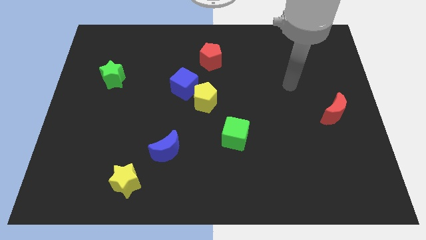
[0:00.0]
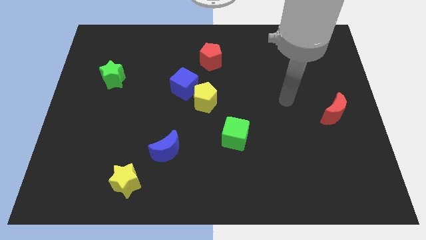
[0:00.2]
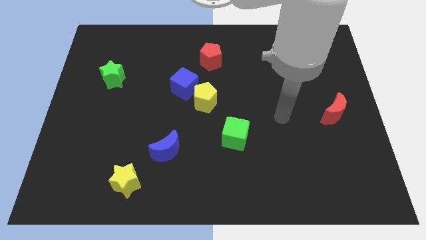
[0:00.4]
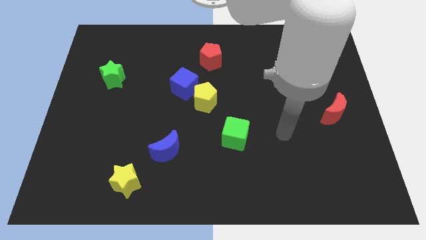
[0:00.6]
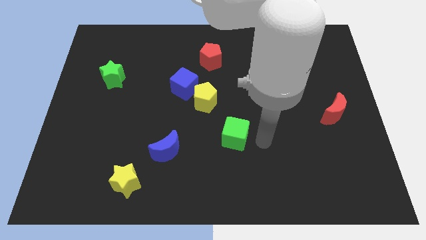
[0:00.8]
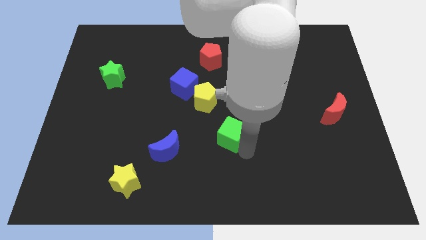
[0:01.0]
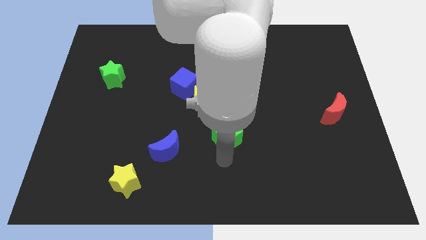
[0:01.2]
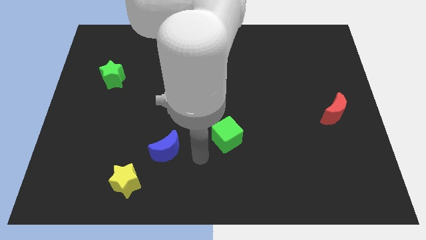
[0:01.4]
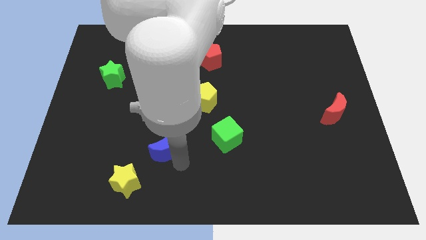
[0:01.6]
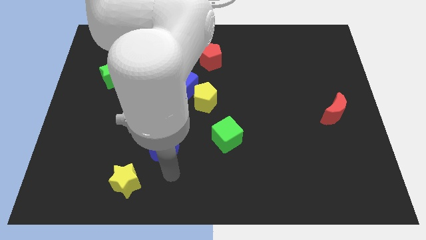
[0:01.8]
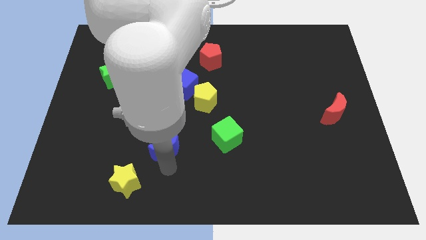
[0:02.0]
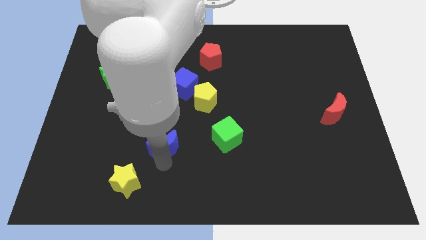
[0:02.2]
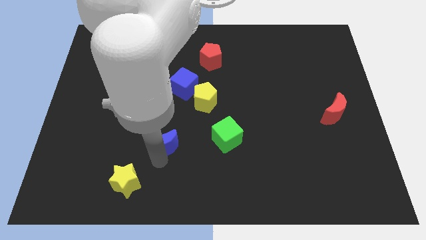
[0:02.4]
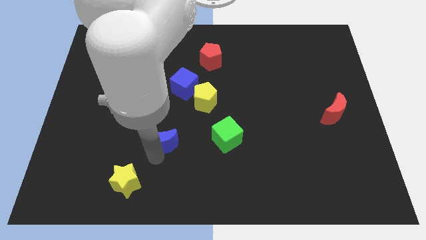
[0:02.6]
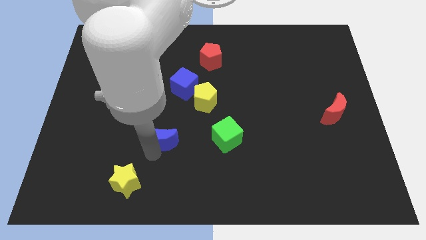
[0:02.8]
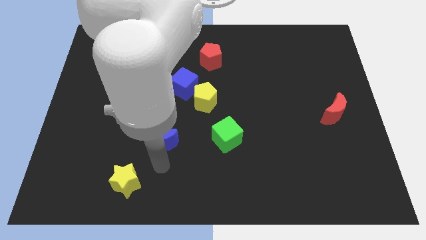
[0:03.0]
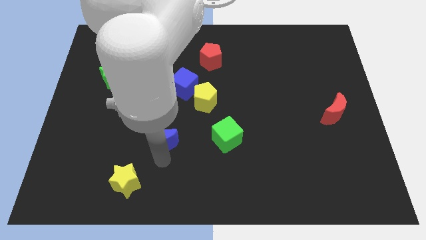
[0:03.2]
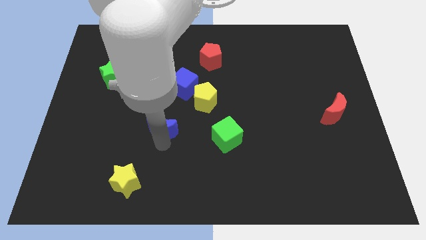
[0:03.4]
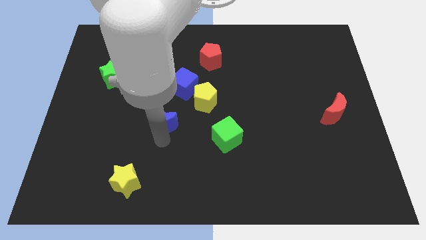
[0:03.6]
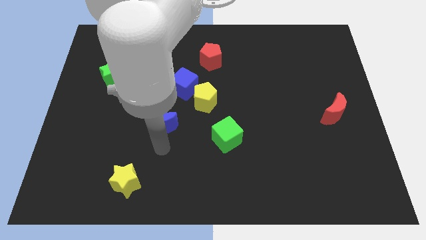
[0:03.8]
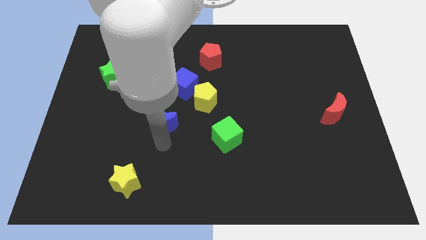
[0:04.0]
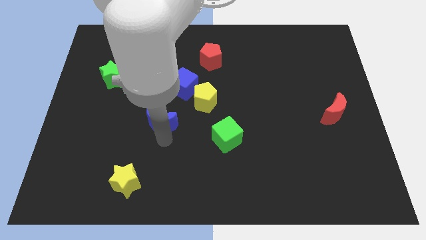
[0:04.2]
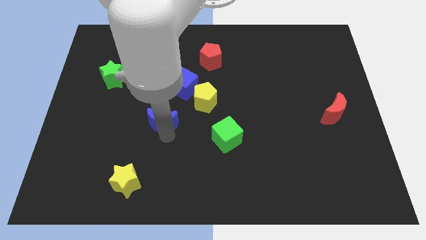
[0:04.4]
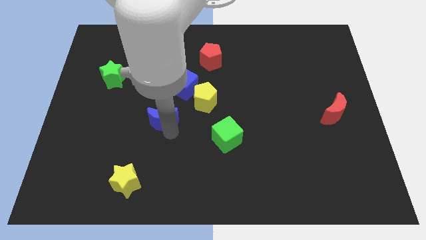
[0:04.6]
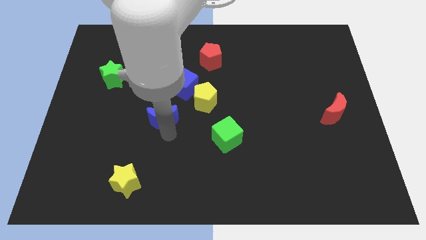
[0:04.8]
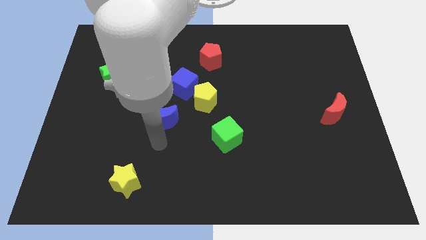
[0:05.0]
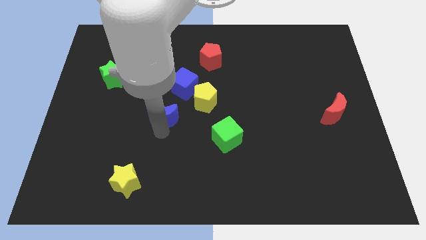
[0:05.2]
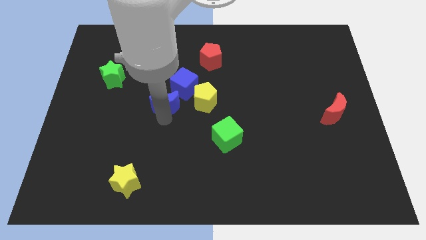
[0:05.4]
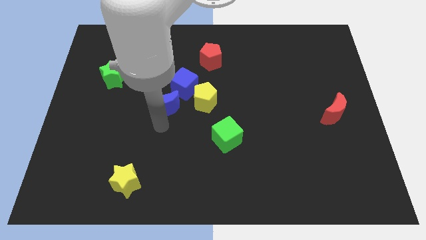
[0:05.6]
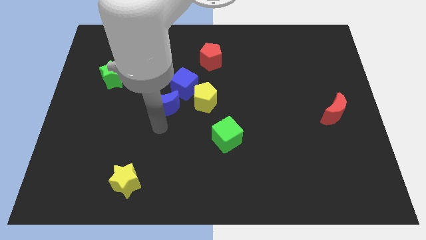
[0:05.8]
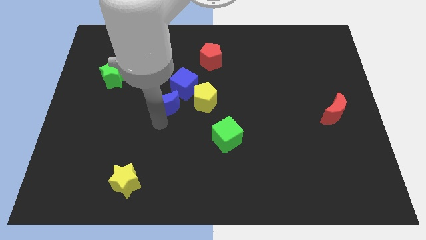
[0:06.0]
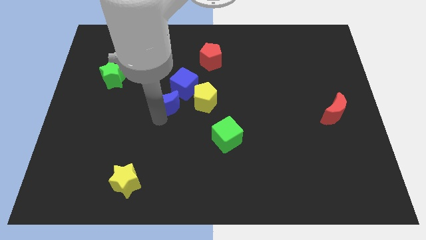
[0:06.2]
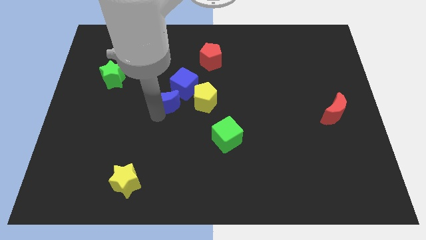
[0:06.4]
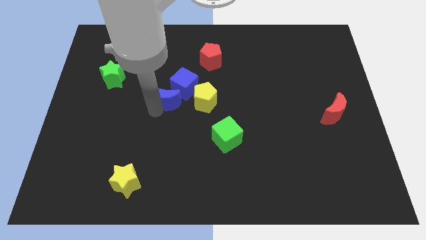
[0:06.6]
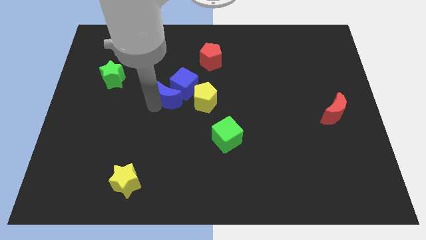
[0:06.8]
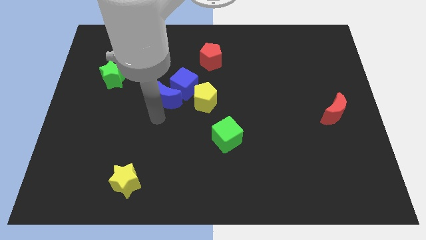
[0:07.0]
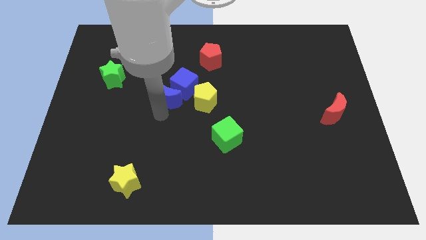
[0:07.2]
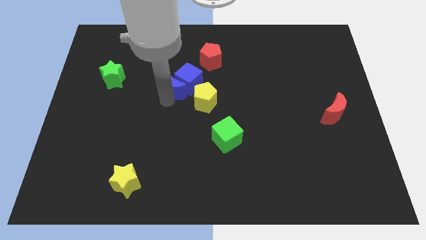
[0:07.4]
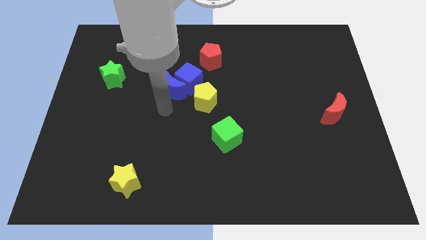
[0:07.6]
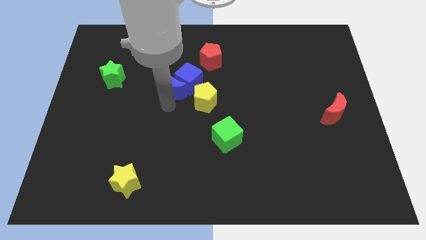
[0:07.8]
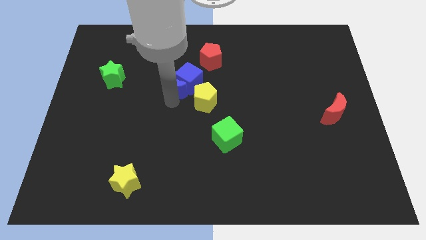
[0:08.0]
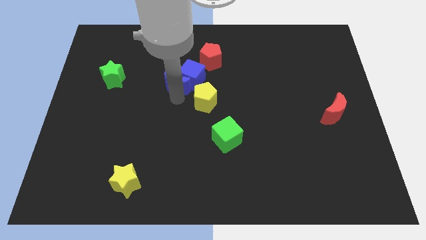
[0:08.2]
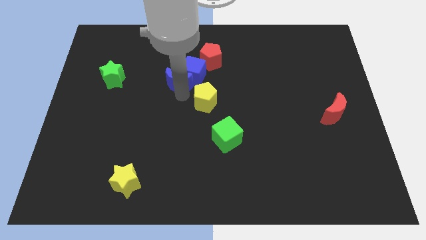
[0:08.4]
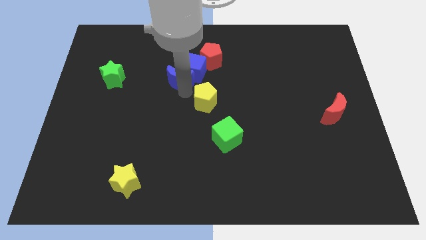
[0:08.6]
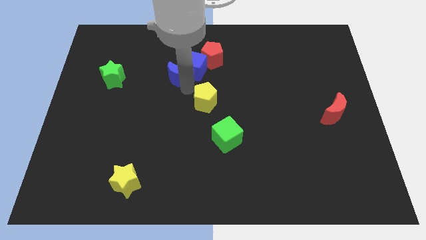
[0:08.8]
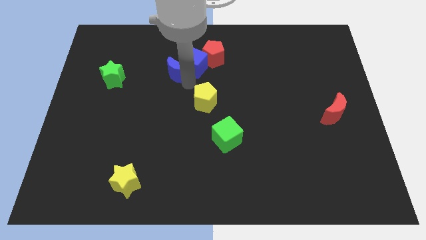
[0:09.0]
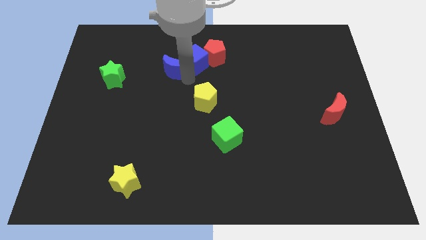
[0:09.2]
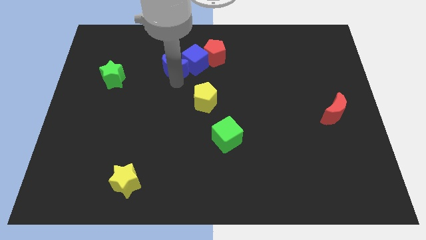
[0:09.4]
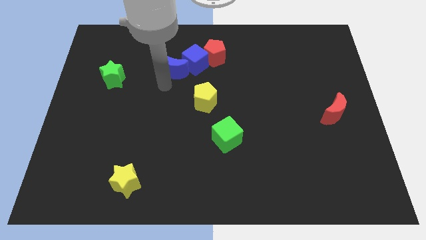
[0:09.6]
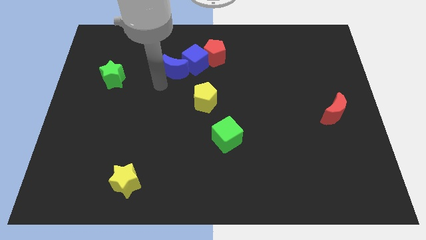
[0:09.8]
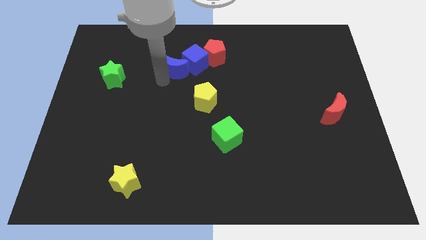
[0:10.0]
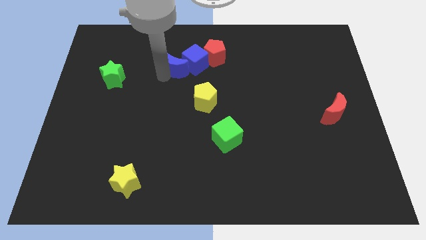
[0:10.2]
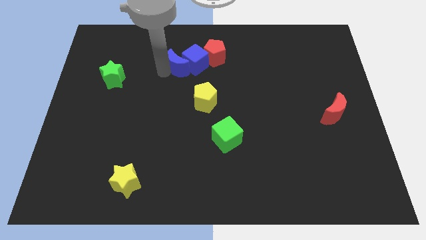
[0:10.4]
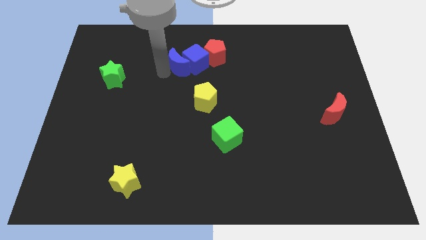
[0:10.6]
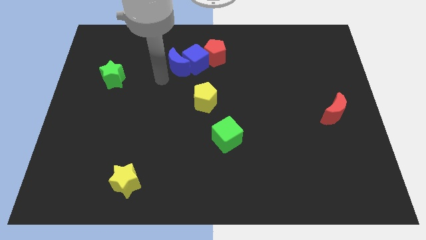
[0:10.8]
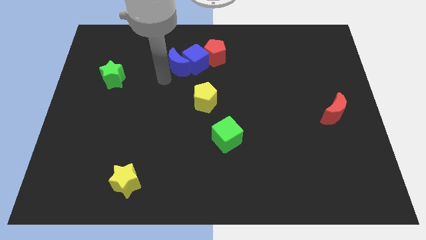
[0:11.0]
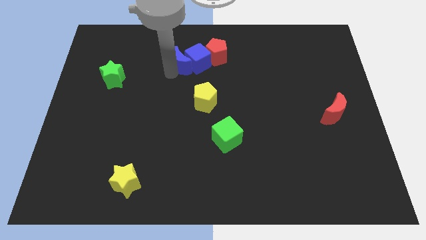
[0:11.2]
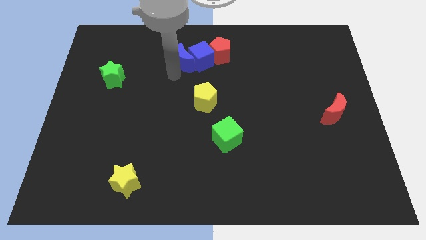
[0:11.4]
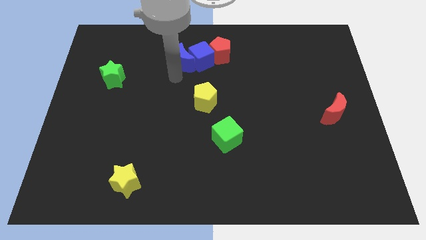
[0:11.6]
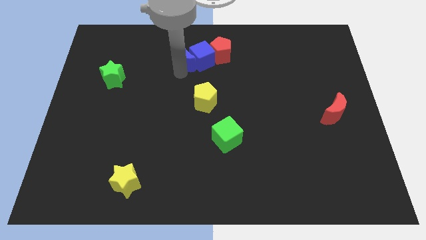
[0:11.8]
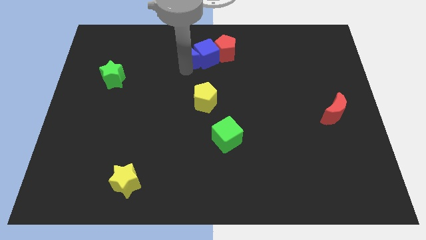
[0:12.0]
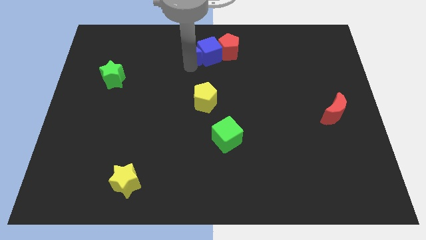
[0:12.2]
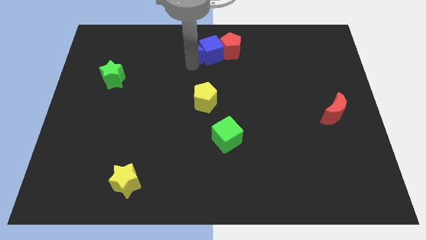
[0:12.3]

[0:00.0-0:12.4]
put the blue moon to the top side
